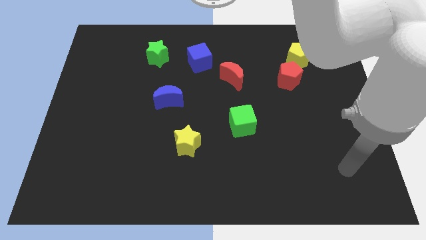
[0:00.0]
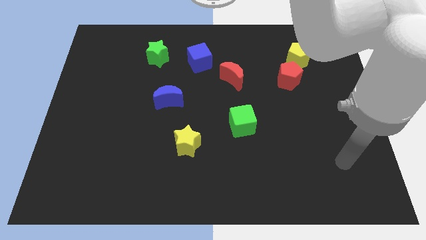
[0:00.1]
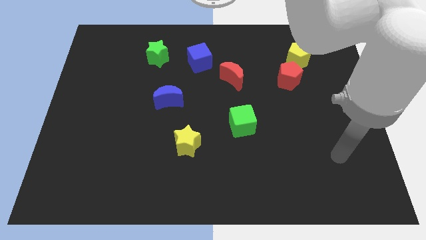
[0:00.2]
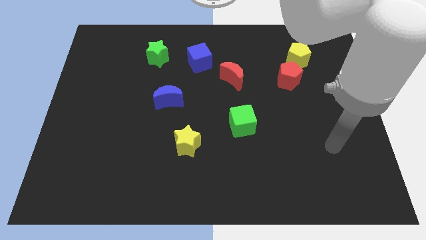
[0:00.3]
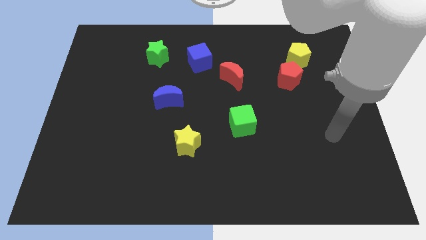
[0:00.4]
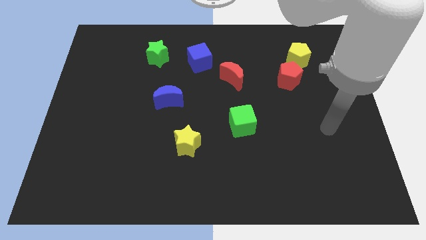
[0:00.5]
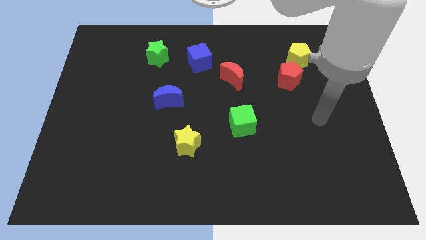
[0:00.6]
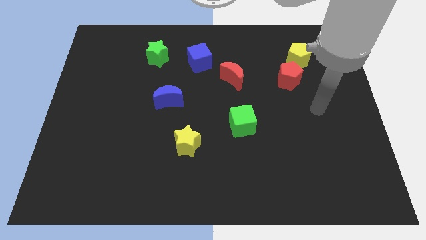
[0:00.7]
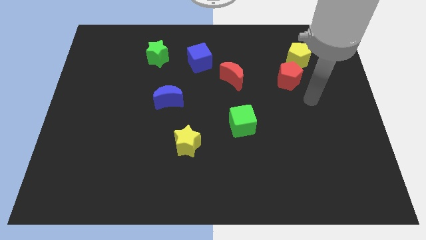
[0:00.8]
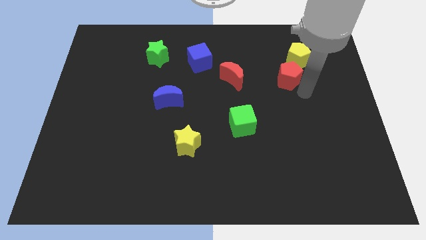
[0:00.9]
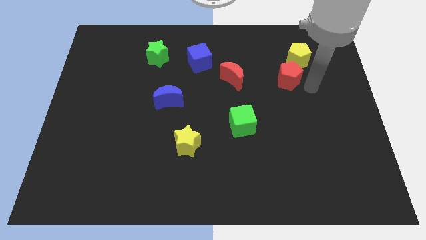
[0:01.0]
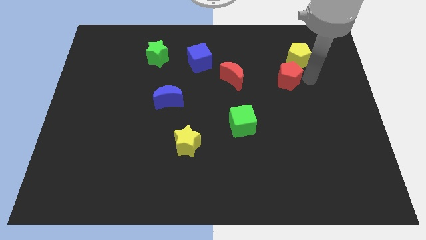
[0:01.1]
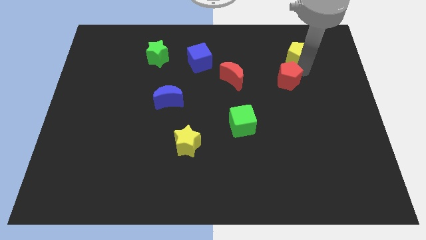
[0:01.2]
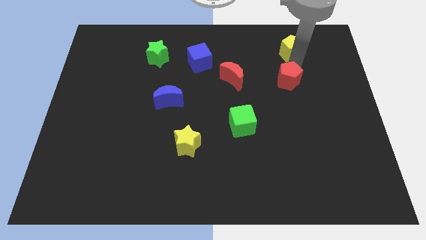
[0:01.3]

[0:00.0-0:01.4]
separate the red pentagon from the yellow pentagon

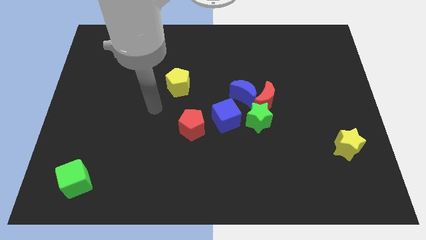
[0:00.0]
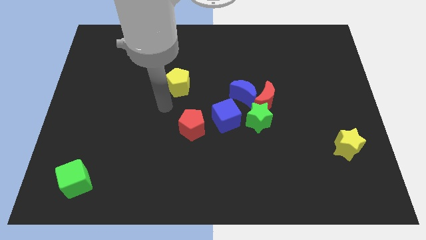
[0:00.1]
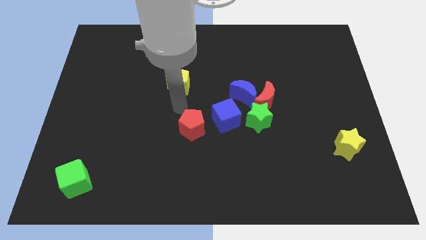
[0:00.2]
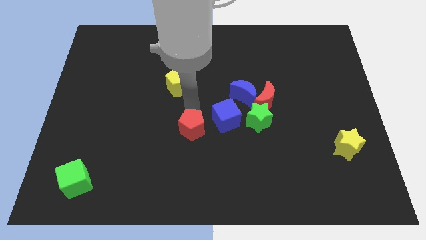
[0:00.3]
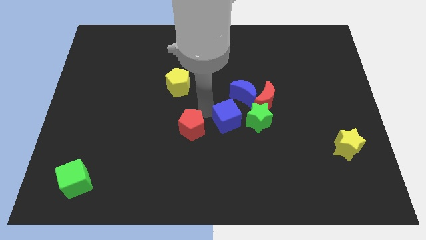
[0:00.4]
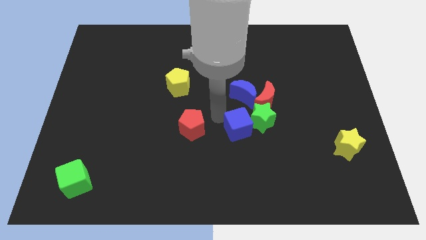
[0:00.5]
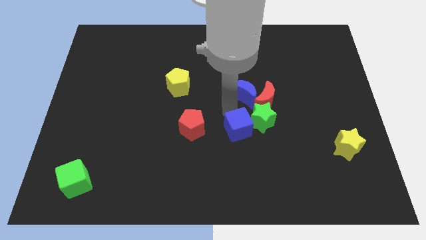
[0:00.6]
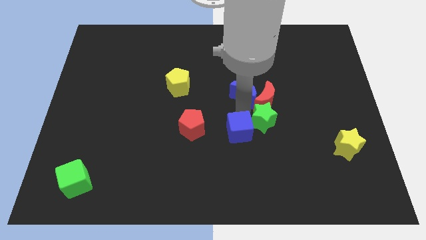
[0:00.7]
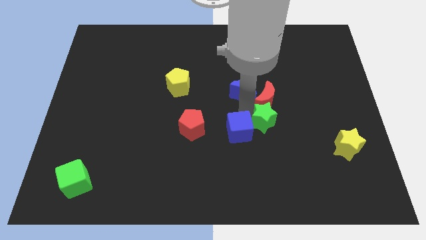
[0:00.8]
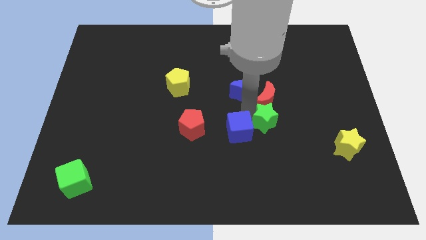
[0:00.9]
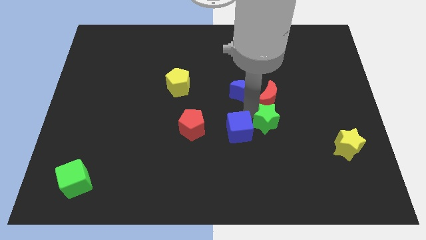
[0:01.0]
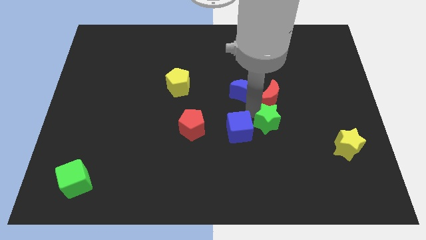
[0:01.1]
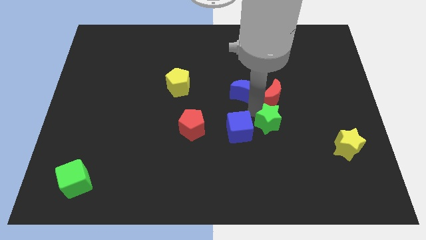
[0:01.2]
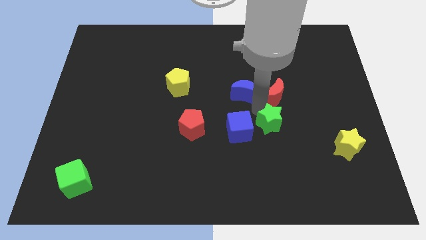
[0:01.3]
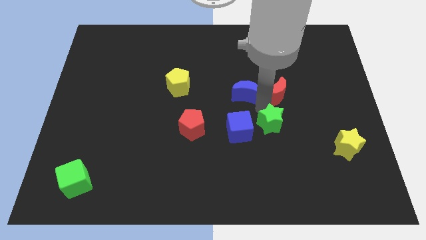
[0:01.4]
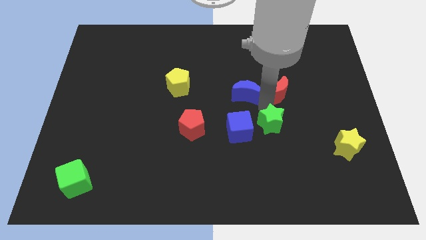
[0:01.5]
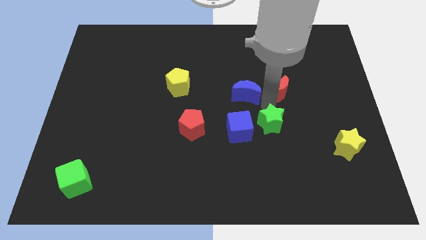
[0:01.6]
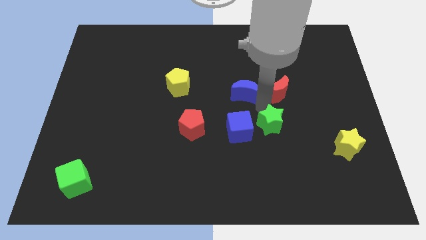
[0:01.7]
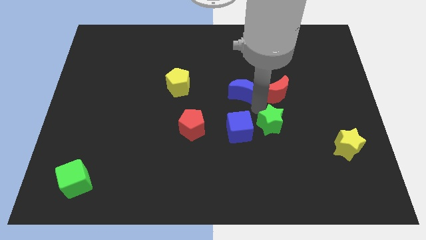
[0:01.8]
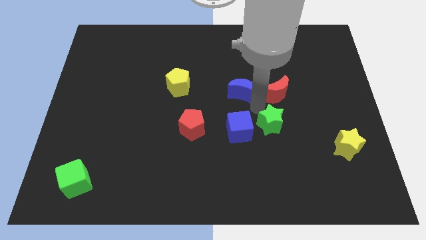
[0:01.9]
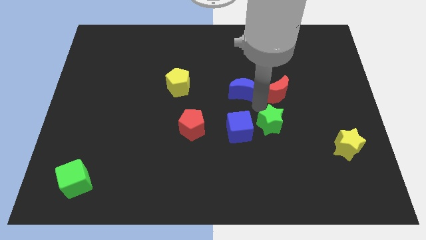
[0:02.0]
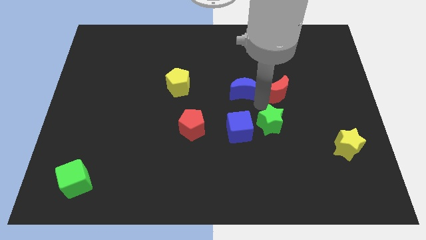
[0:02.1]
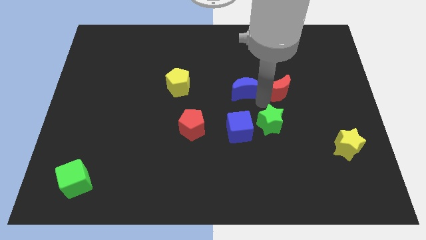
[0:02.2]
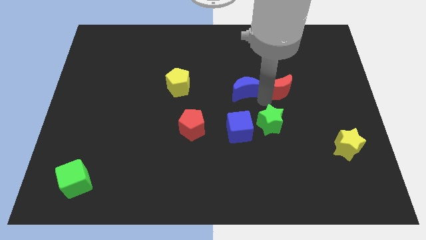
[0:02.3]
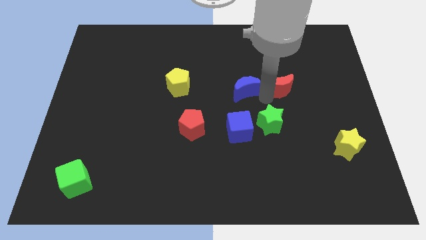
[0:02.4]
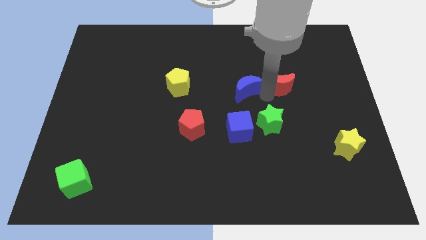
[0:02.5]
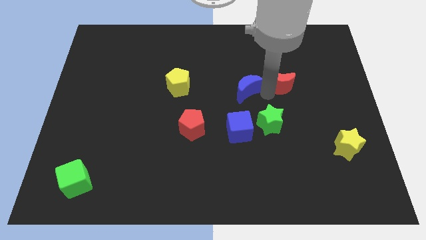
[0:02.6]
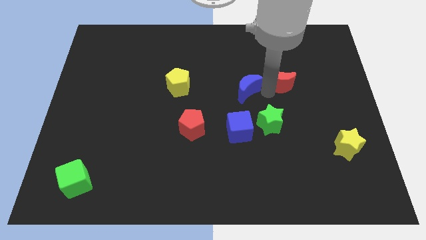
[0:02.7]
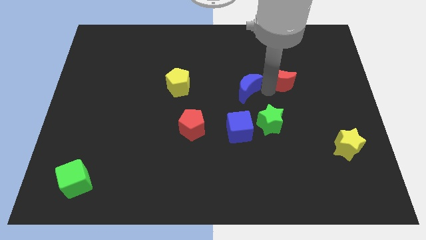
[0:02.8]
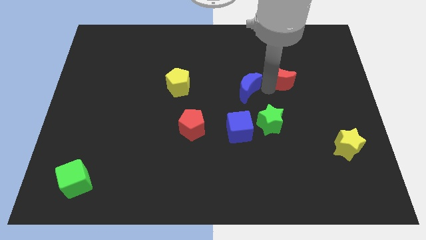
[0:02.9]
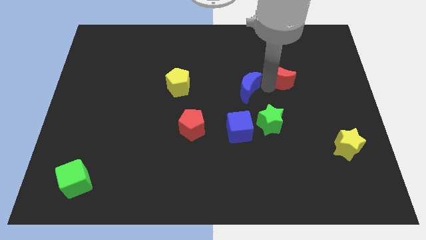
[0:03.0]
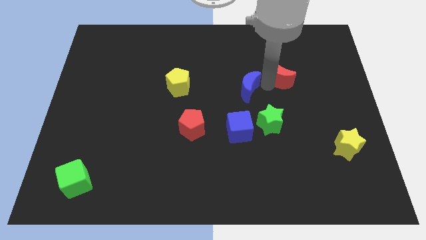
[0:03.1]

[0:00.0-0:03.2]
move the red moon away from the blue moon and green star

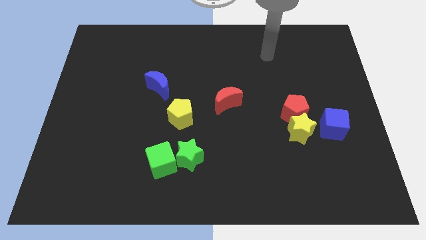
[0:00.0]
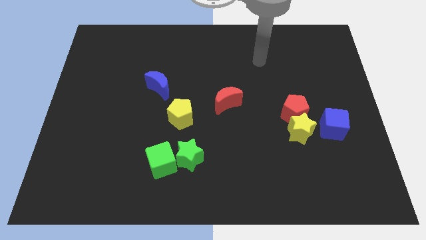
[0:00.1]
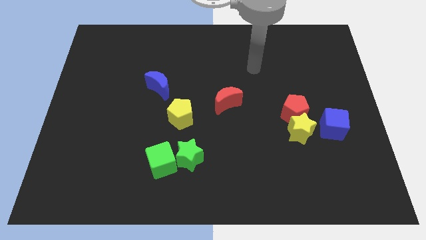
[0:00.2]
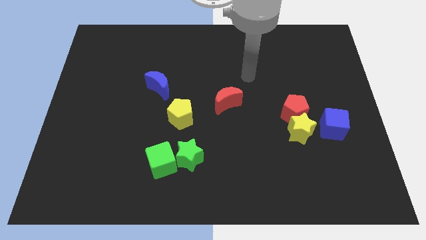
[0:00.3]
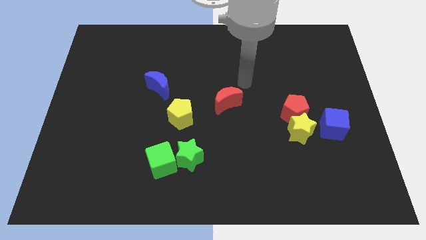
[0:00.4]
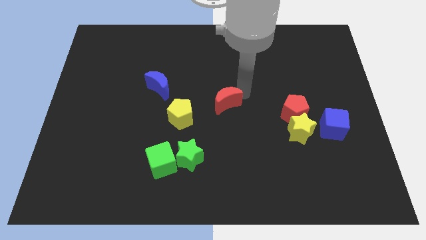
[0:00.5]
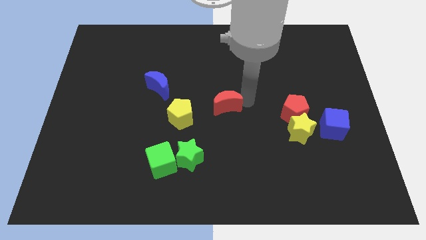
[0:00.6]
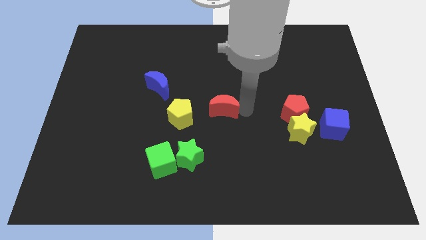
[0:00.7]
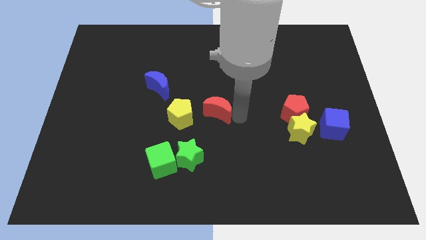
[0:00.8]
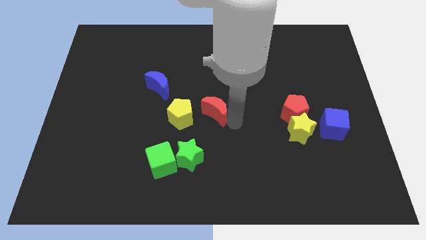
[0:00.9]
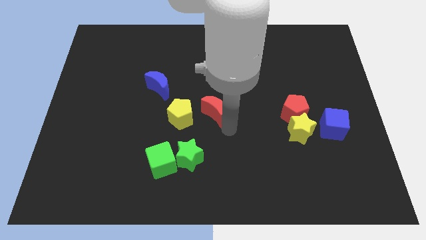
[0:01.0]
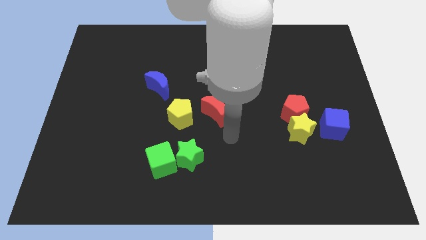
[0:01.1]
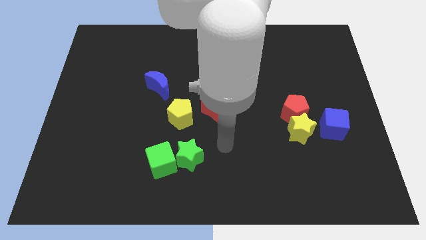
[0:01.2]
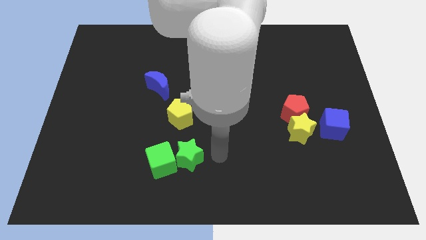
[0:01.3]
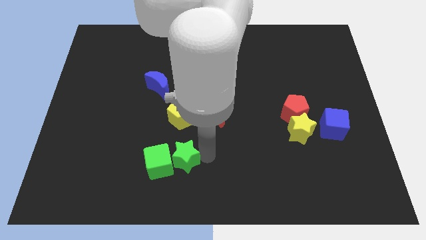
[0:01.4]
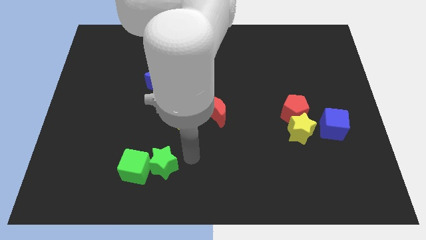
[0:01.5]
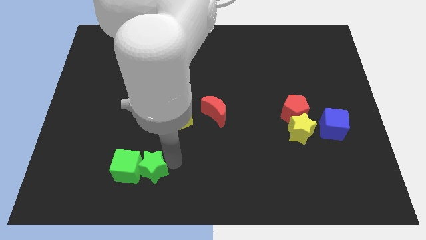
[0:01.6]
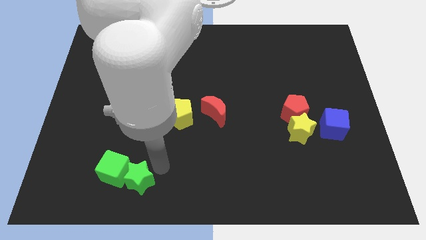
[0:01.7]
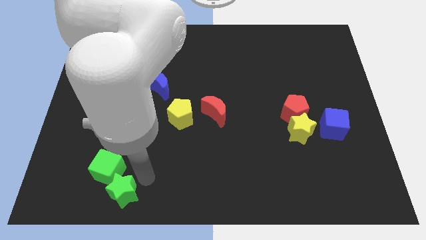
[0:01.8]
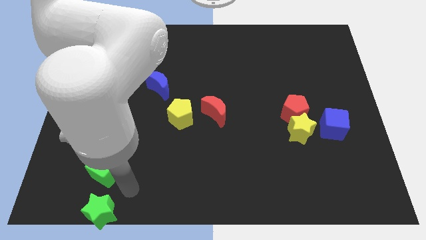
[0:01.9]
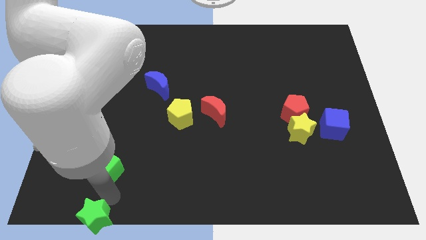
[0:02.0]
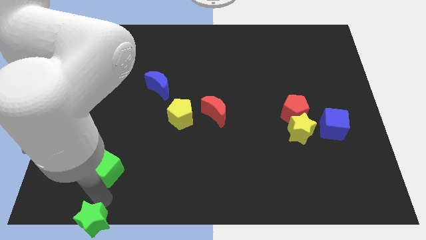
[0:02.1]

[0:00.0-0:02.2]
pull the green cube apart from the green star

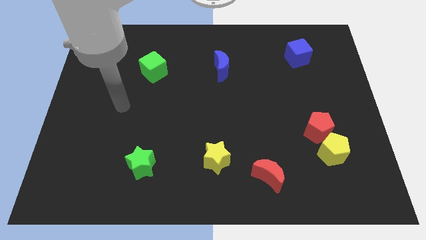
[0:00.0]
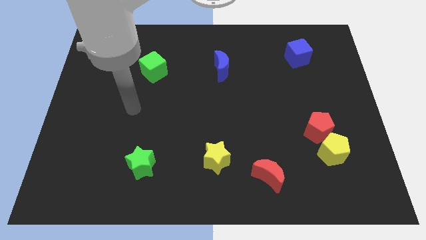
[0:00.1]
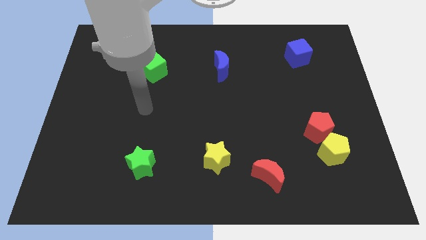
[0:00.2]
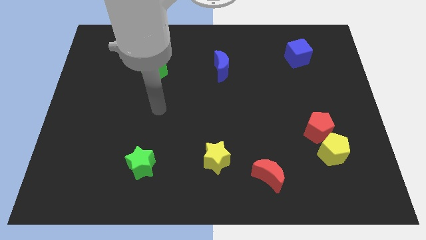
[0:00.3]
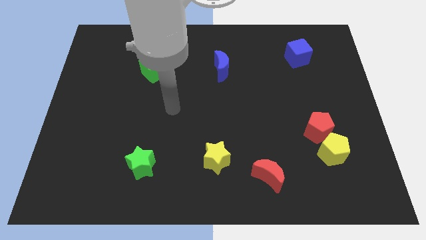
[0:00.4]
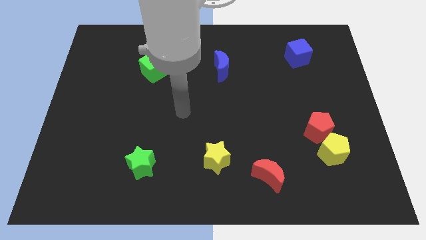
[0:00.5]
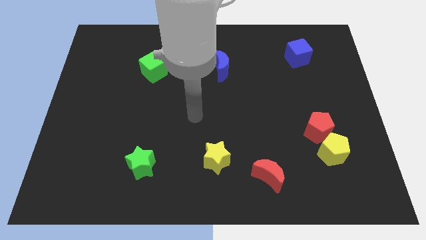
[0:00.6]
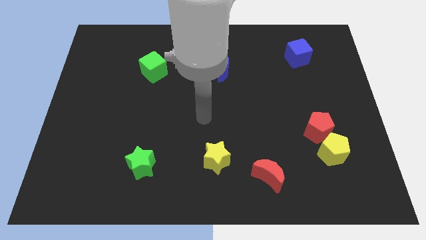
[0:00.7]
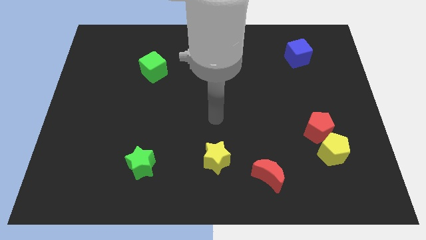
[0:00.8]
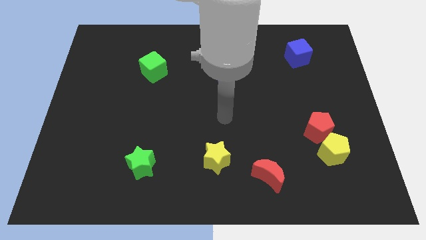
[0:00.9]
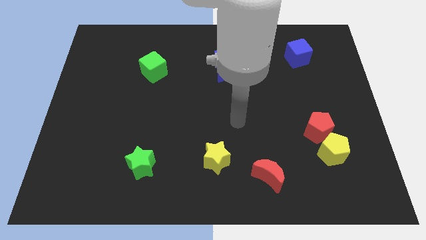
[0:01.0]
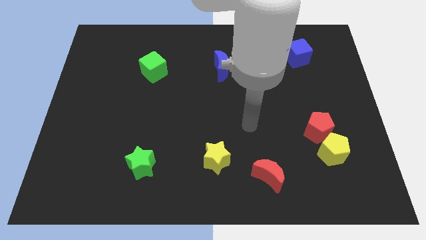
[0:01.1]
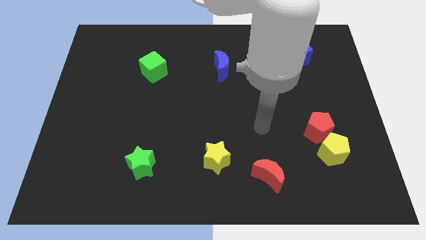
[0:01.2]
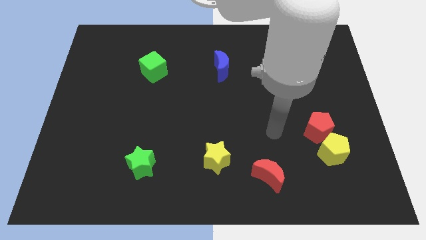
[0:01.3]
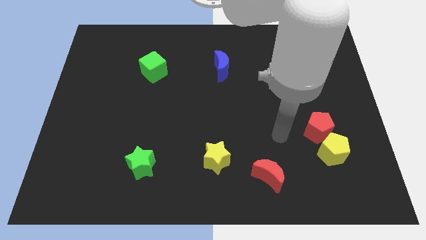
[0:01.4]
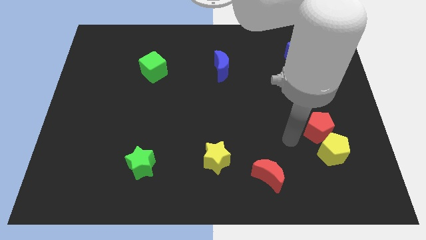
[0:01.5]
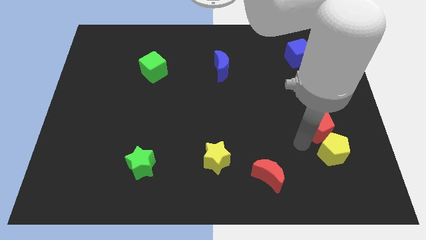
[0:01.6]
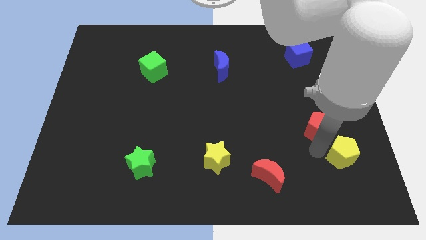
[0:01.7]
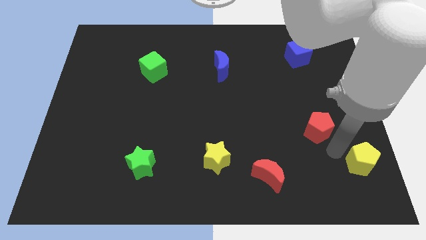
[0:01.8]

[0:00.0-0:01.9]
move the red pentagon away from the yellow pentagon

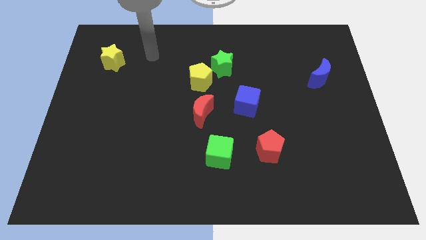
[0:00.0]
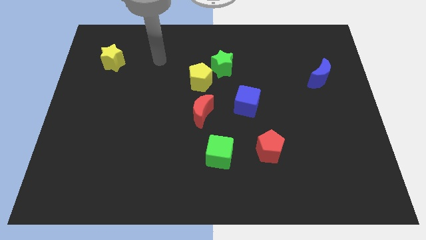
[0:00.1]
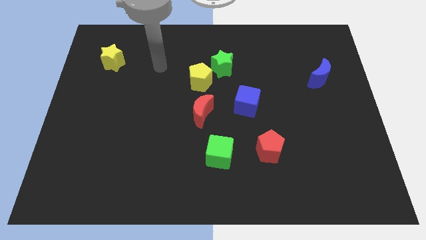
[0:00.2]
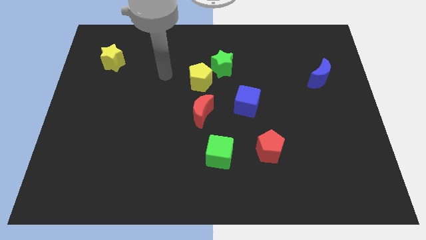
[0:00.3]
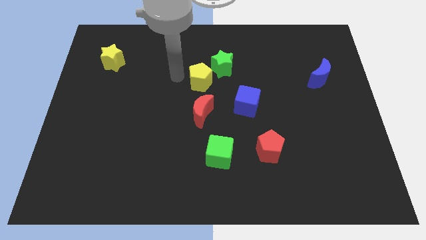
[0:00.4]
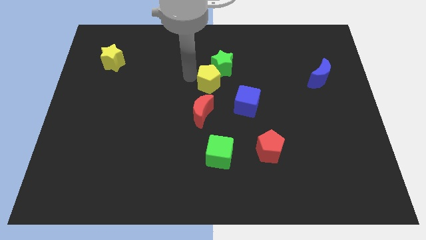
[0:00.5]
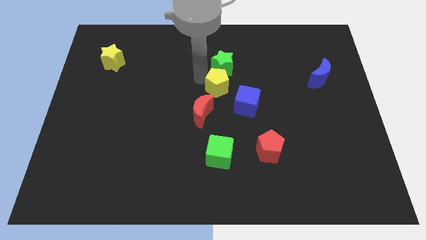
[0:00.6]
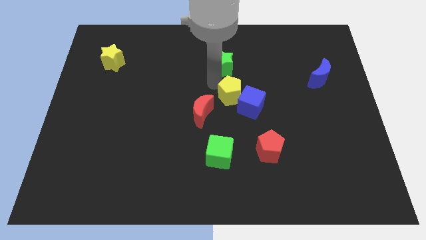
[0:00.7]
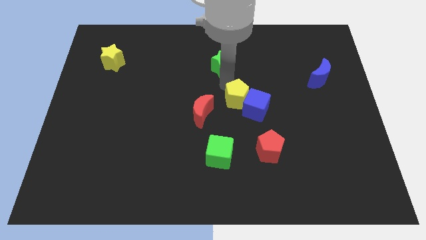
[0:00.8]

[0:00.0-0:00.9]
separate the green star from the yellow pentagon
